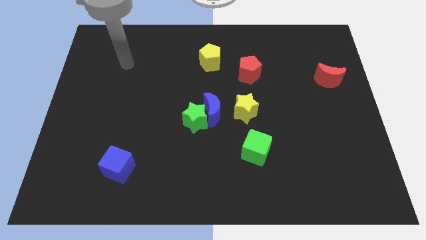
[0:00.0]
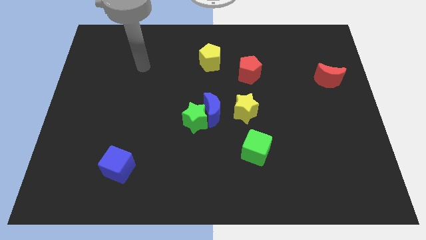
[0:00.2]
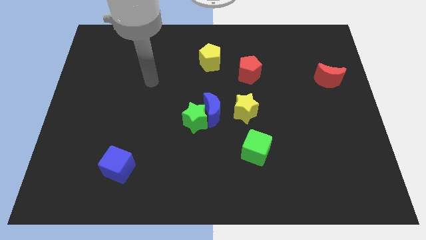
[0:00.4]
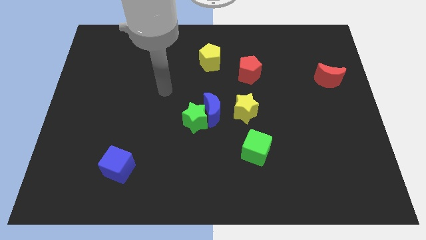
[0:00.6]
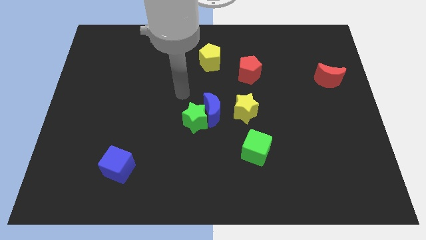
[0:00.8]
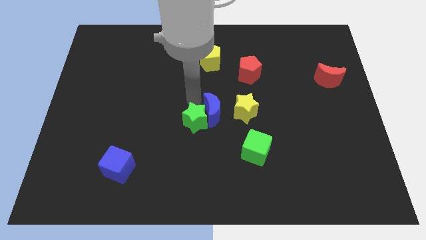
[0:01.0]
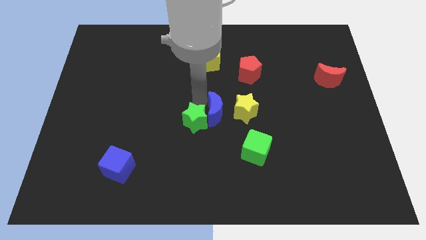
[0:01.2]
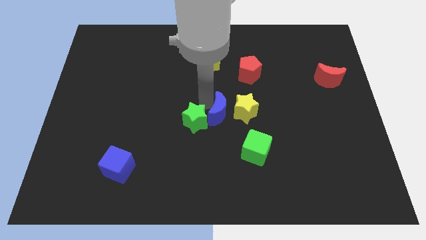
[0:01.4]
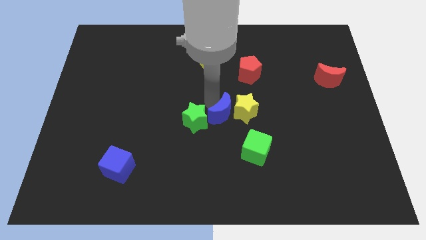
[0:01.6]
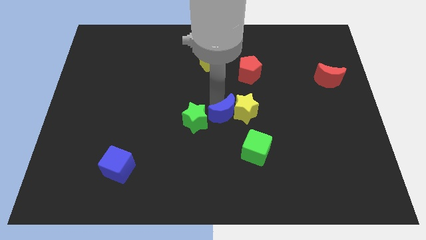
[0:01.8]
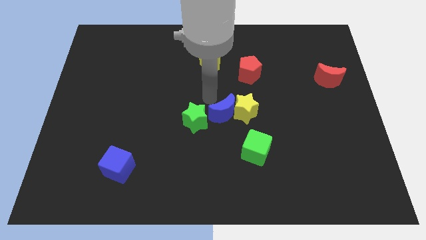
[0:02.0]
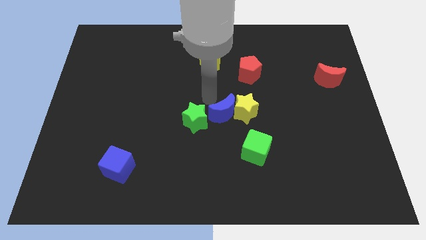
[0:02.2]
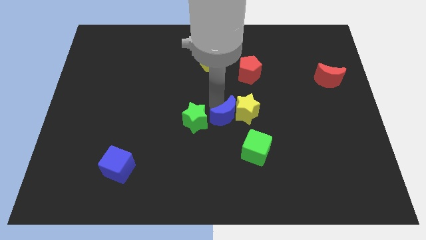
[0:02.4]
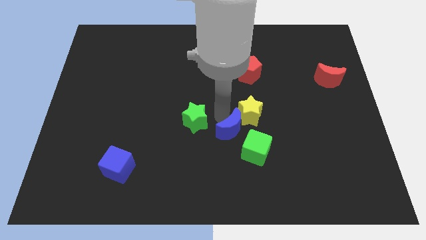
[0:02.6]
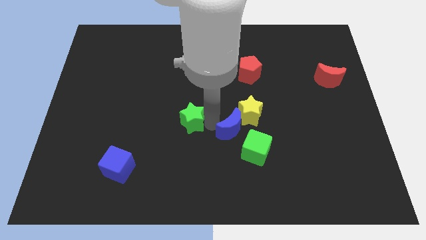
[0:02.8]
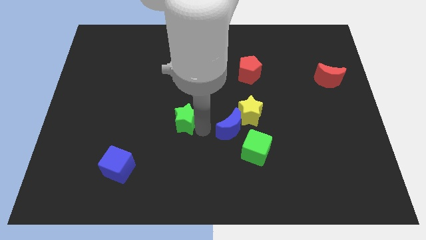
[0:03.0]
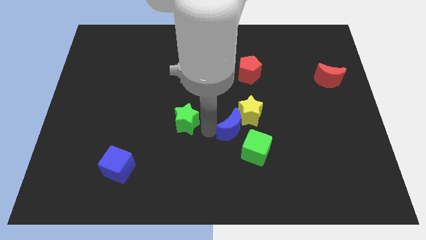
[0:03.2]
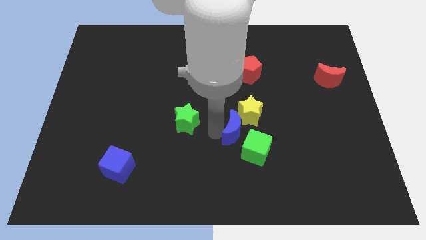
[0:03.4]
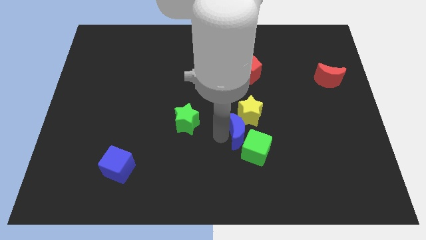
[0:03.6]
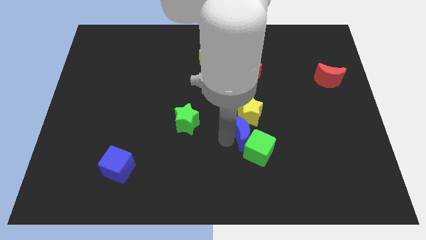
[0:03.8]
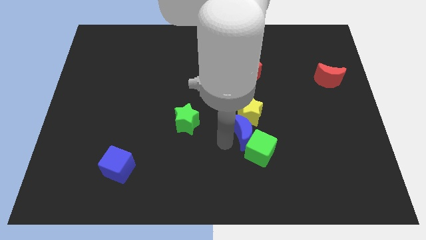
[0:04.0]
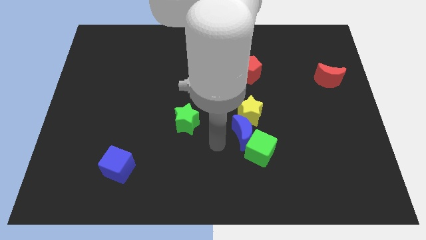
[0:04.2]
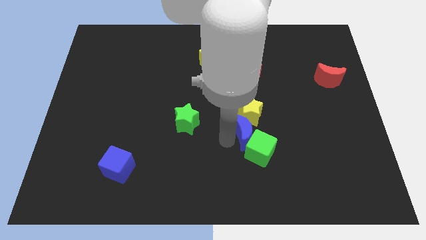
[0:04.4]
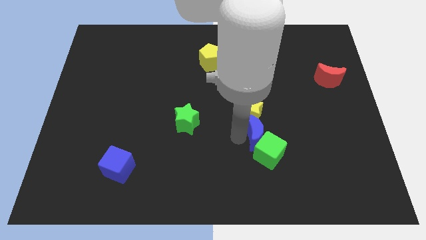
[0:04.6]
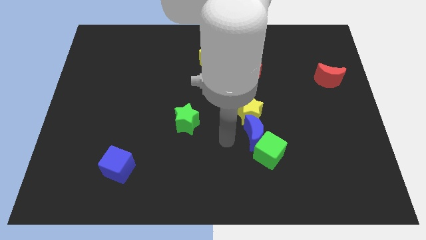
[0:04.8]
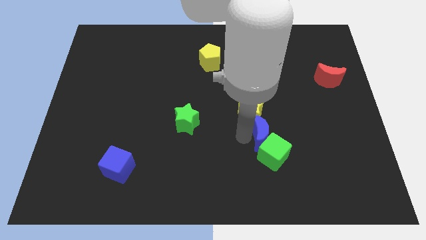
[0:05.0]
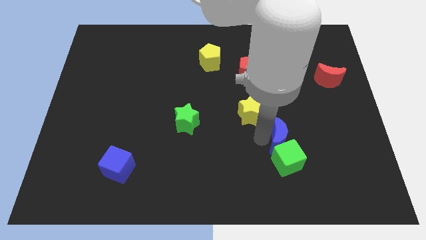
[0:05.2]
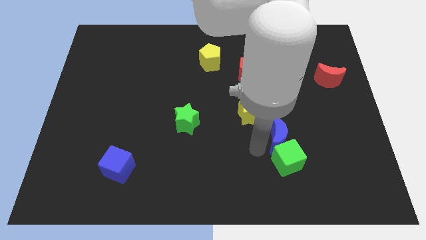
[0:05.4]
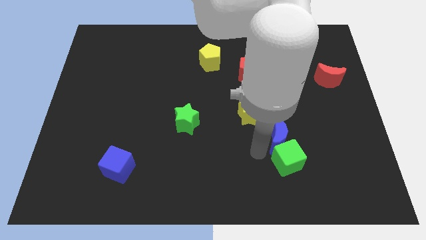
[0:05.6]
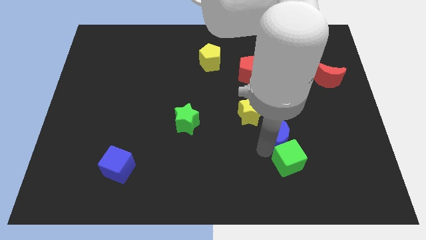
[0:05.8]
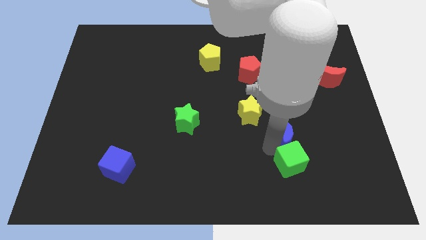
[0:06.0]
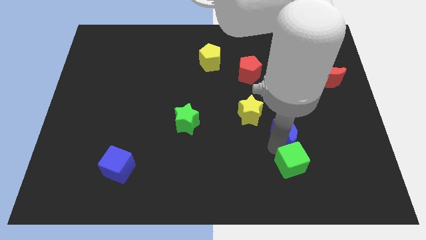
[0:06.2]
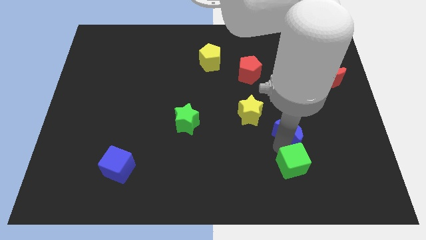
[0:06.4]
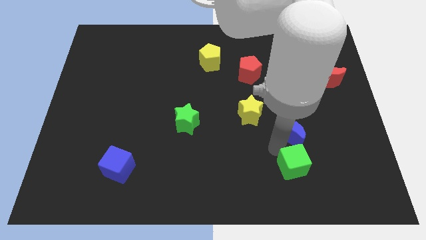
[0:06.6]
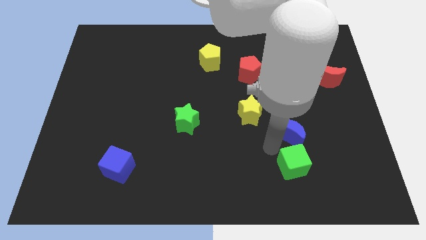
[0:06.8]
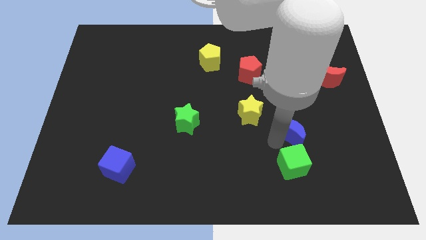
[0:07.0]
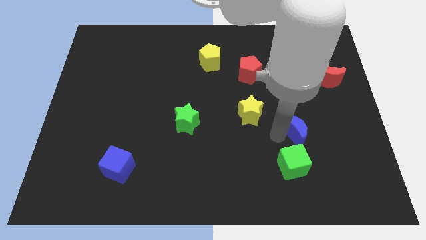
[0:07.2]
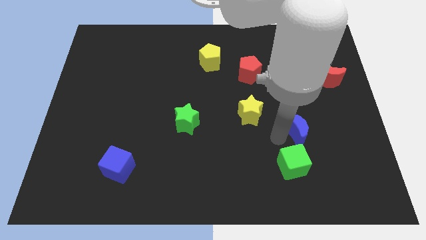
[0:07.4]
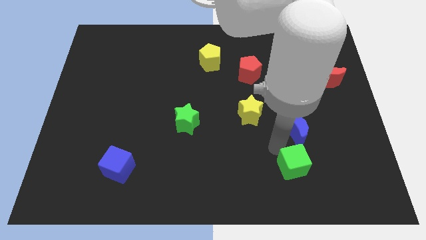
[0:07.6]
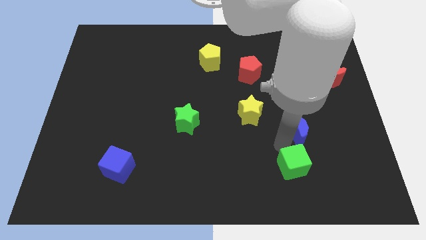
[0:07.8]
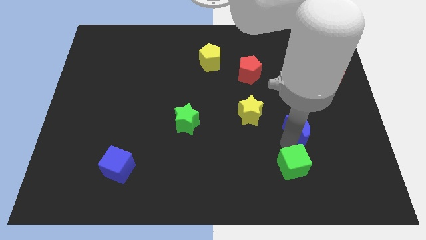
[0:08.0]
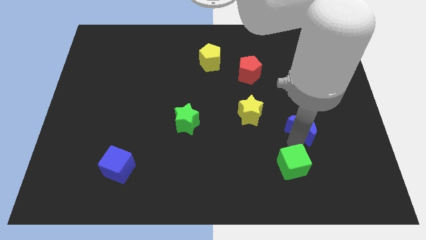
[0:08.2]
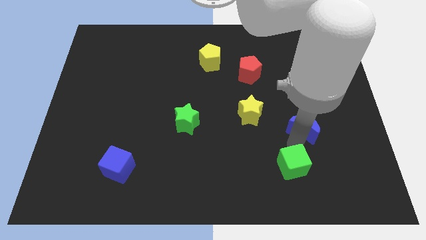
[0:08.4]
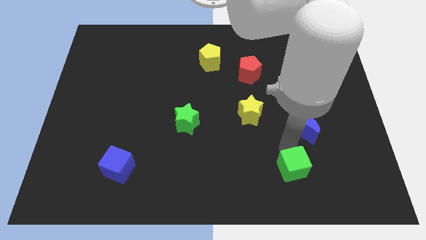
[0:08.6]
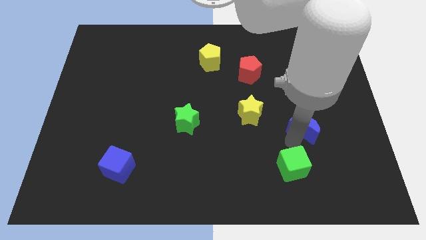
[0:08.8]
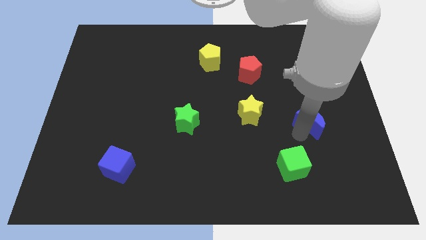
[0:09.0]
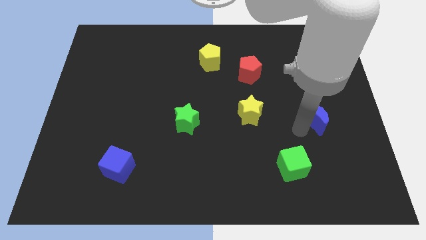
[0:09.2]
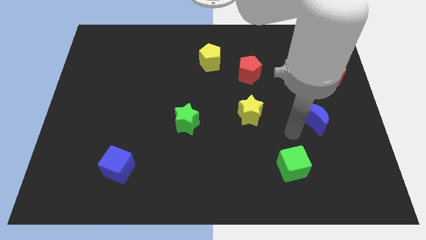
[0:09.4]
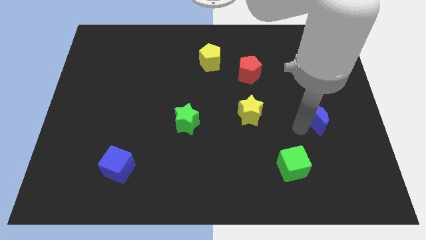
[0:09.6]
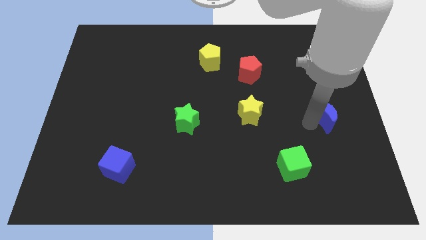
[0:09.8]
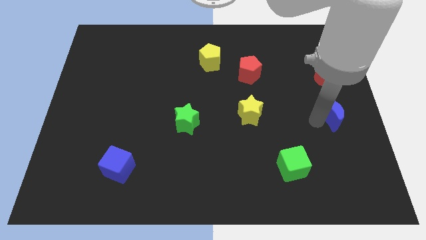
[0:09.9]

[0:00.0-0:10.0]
move the blue moon to the right side of the board

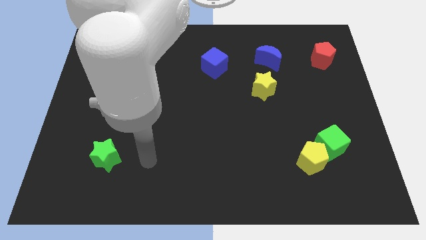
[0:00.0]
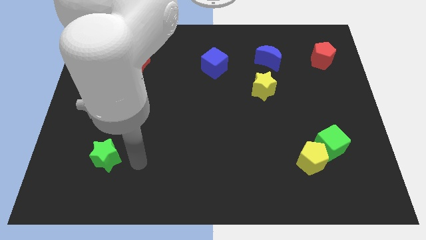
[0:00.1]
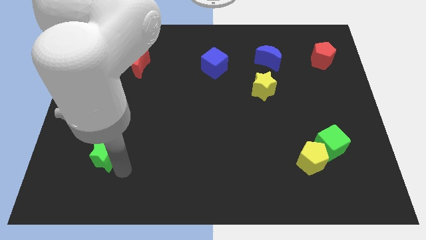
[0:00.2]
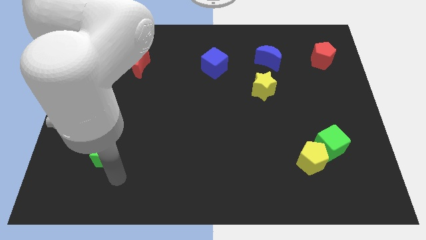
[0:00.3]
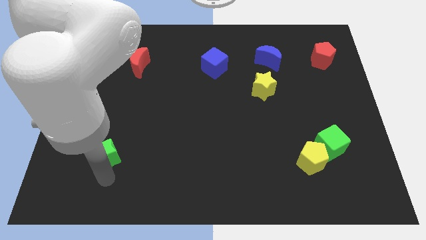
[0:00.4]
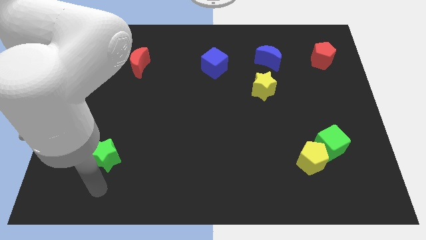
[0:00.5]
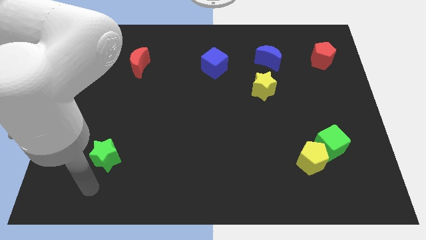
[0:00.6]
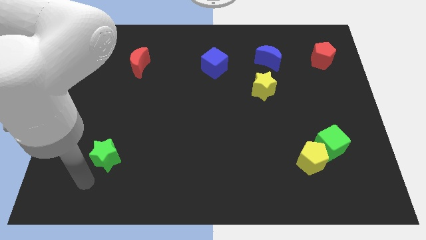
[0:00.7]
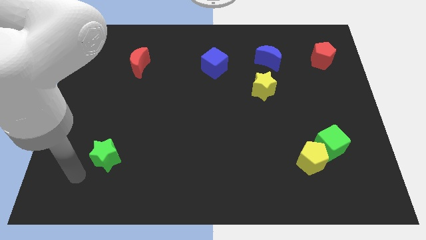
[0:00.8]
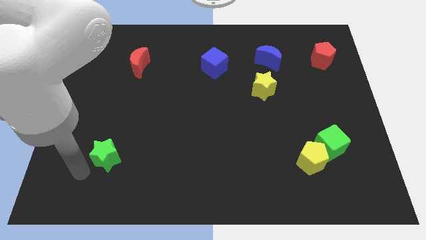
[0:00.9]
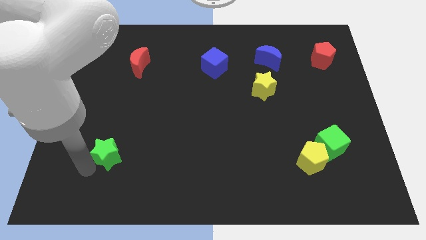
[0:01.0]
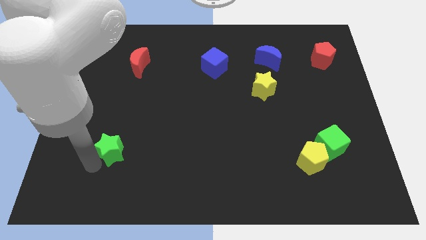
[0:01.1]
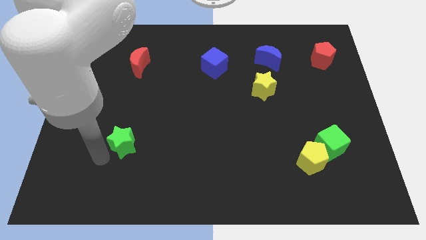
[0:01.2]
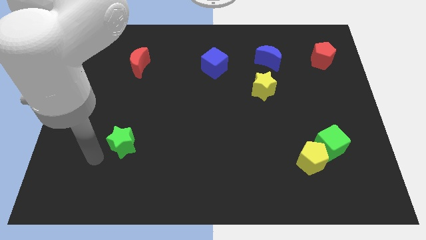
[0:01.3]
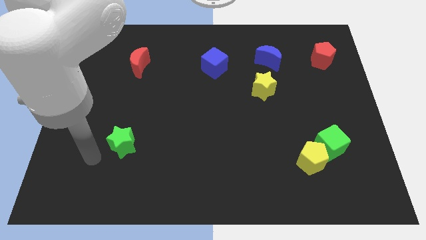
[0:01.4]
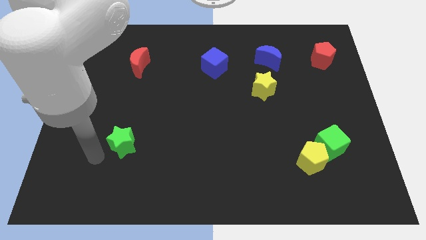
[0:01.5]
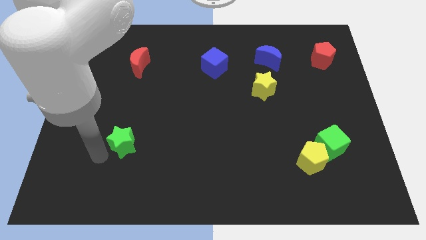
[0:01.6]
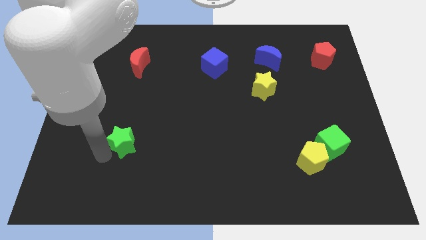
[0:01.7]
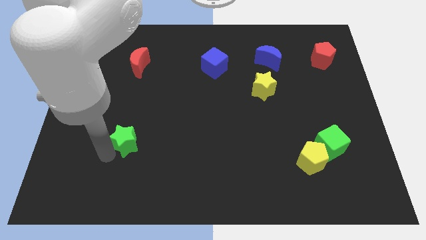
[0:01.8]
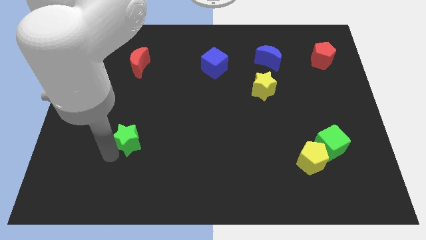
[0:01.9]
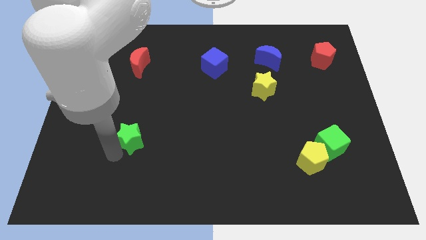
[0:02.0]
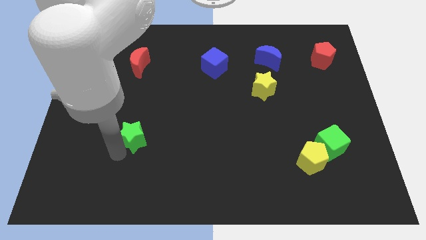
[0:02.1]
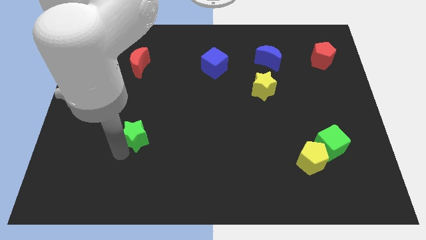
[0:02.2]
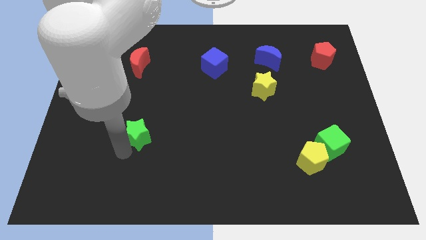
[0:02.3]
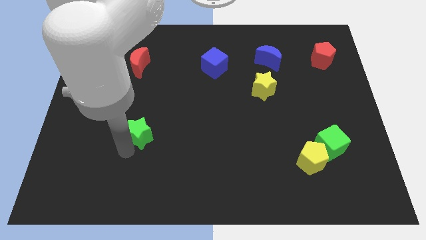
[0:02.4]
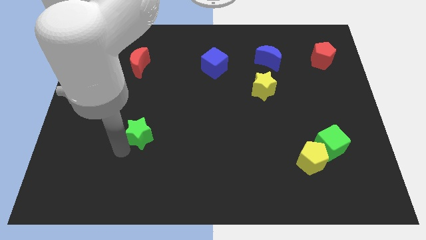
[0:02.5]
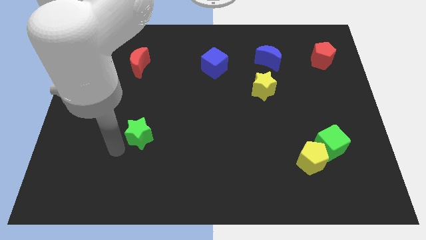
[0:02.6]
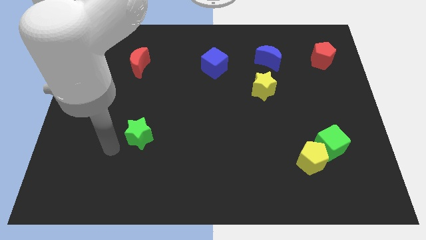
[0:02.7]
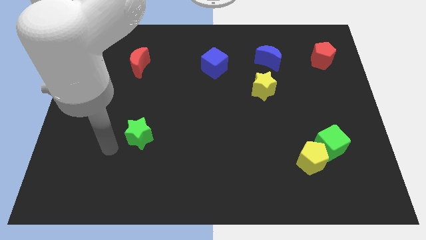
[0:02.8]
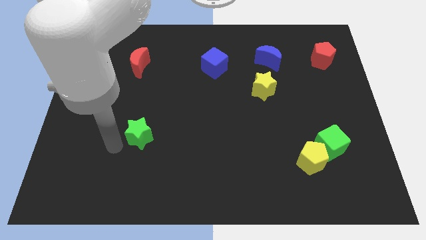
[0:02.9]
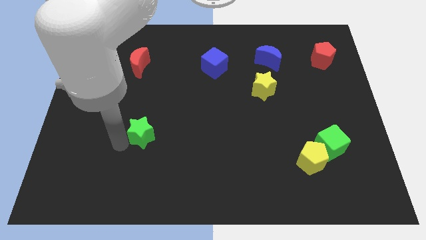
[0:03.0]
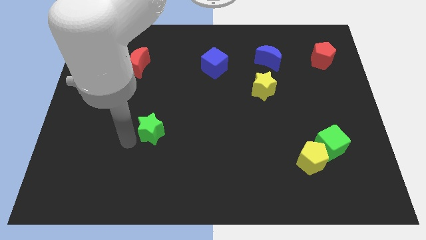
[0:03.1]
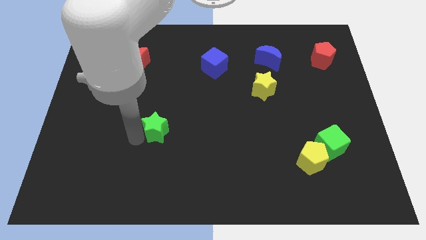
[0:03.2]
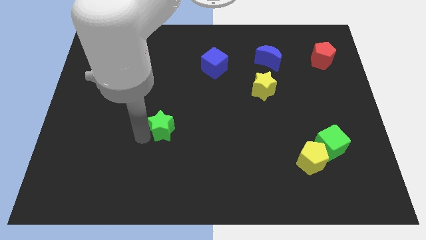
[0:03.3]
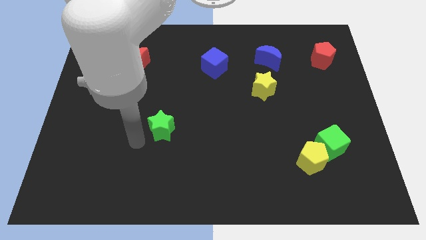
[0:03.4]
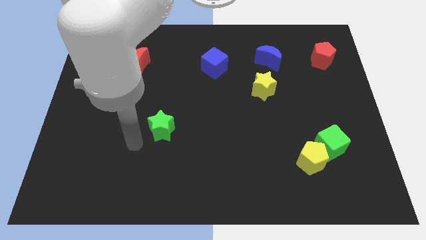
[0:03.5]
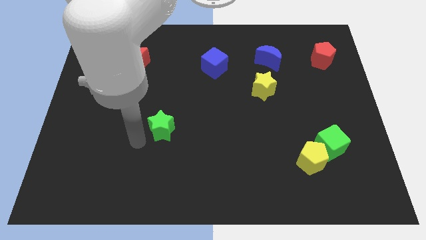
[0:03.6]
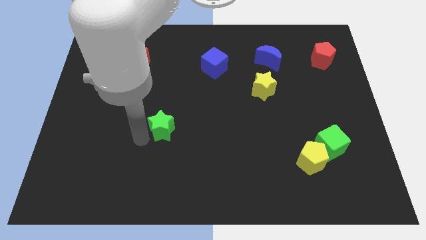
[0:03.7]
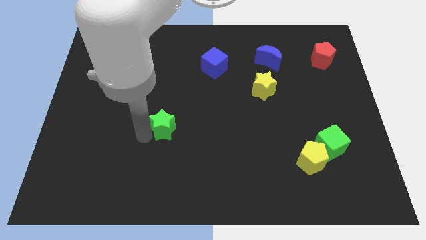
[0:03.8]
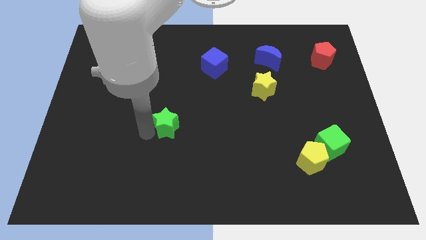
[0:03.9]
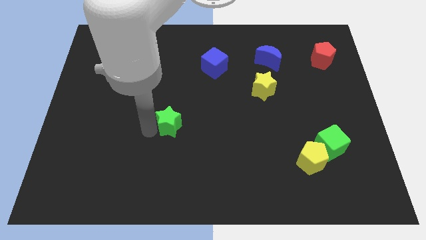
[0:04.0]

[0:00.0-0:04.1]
push the green star to the center of the board
